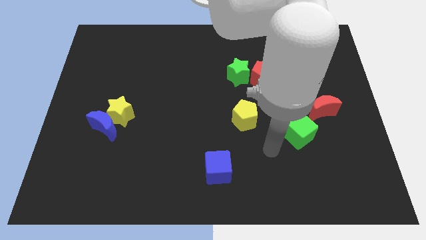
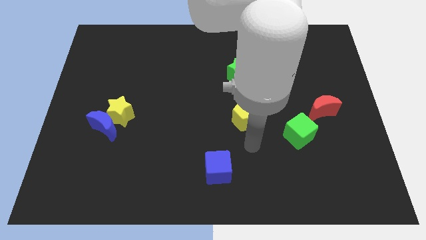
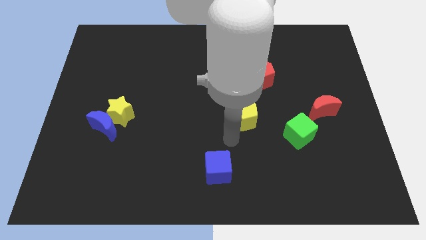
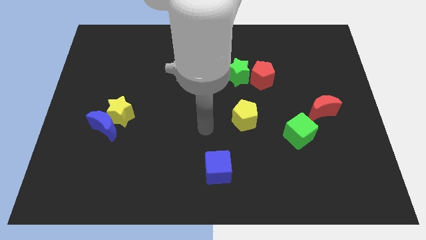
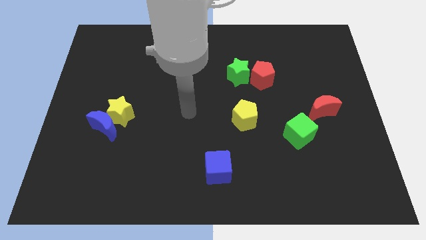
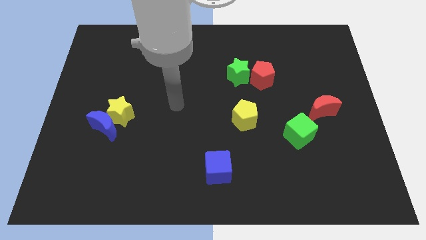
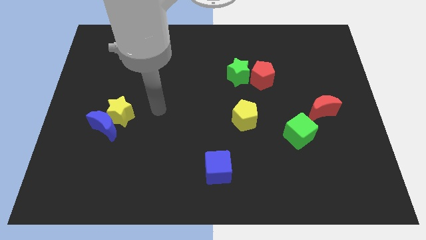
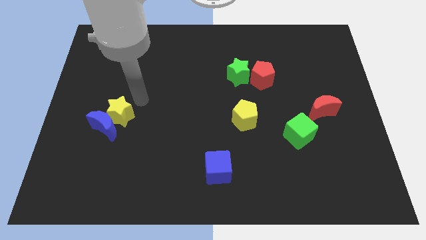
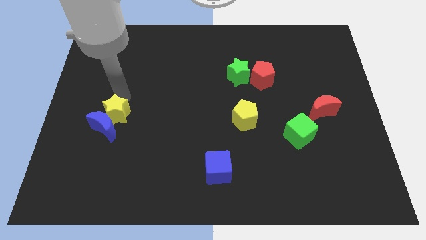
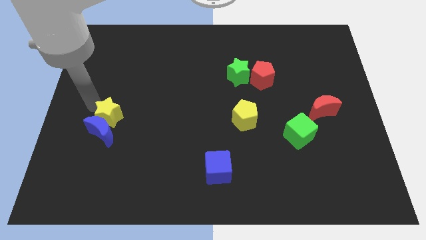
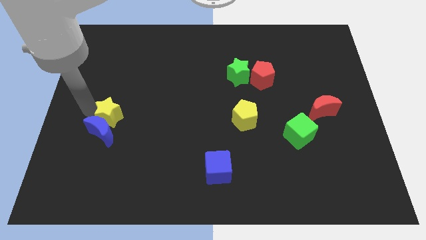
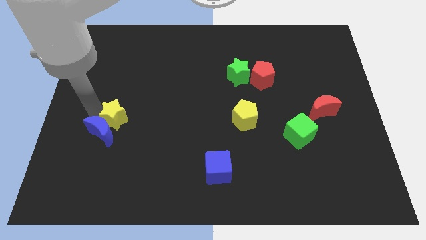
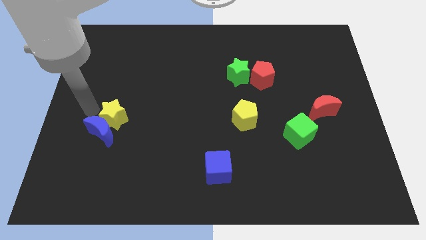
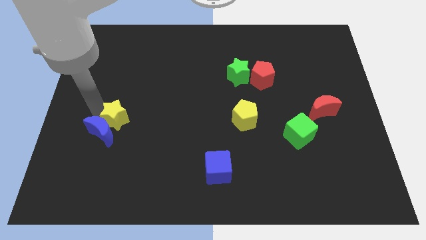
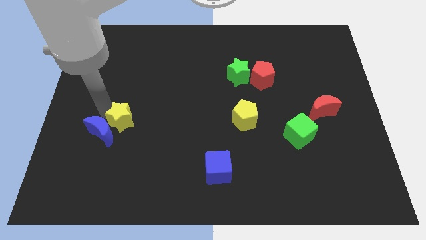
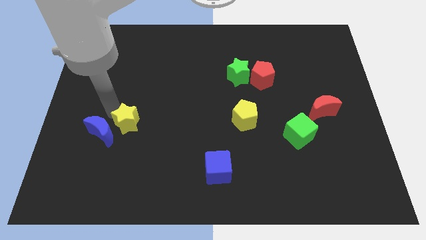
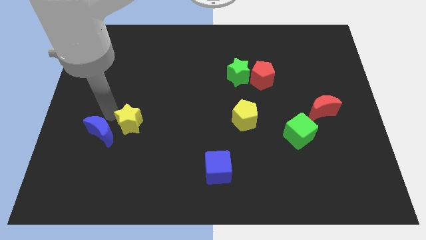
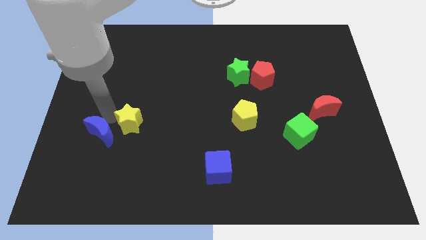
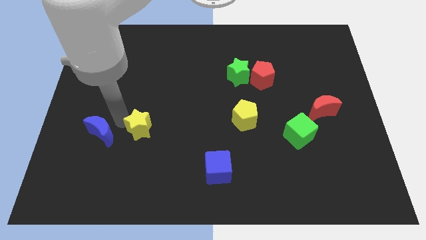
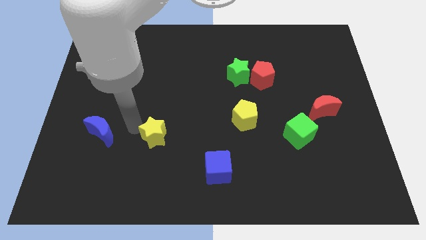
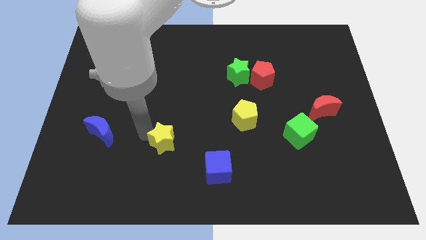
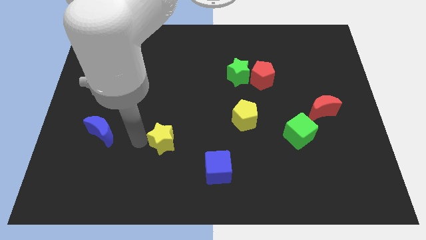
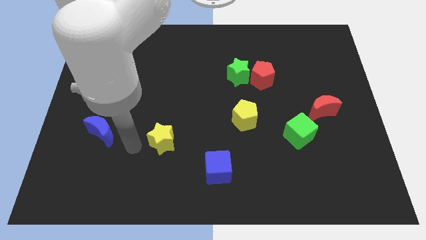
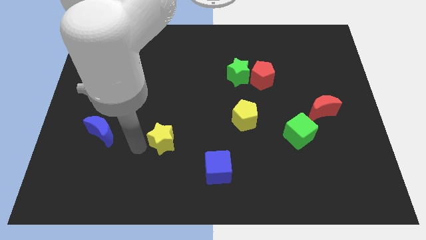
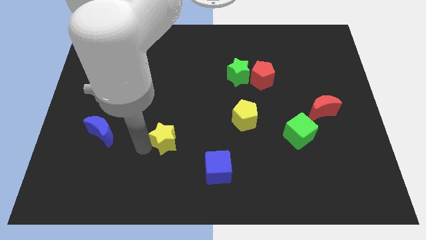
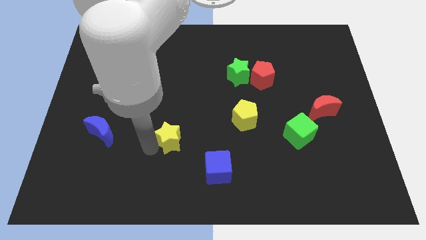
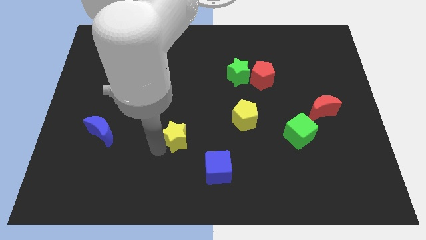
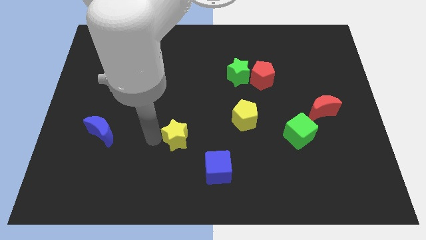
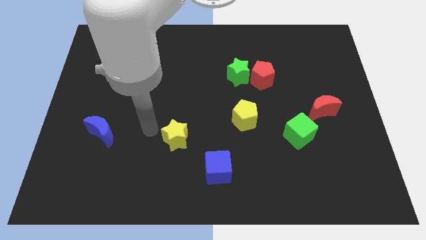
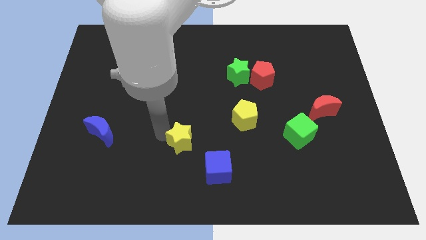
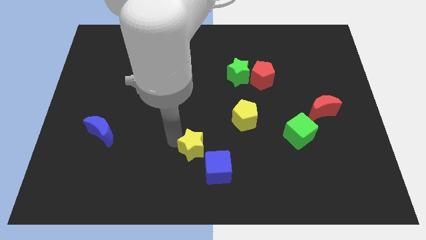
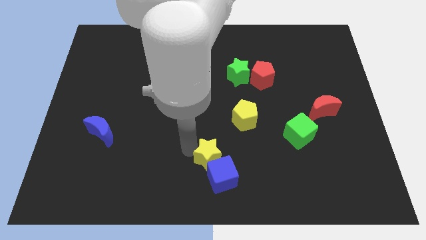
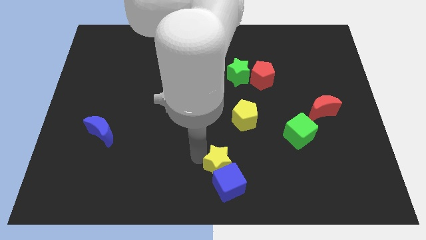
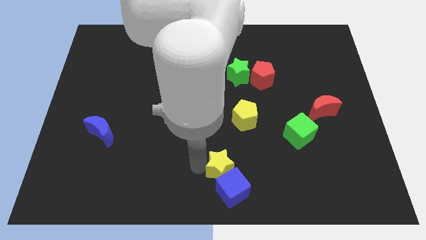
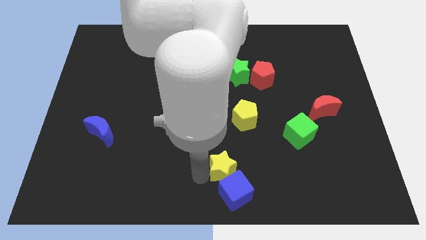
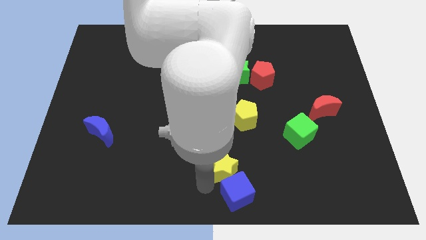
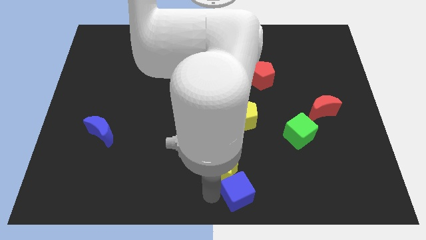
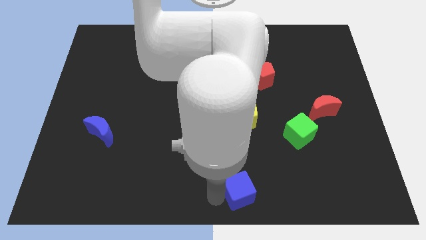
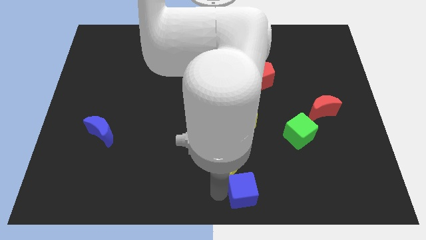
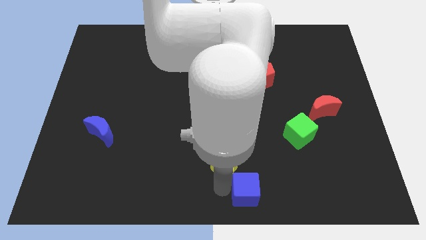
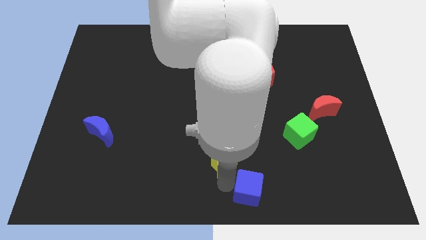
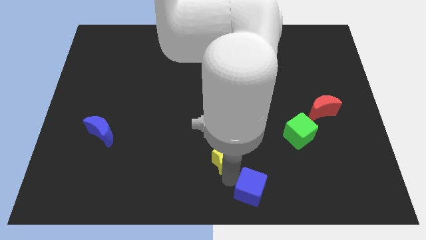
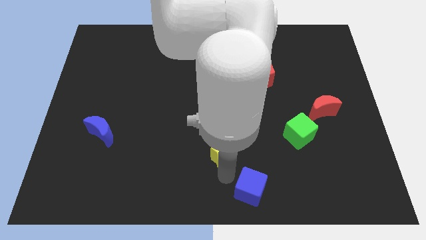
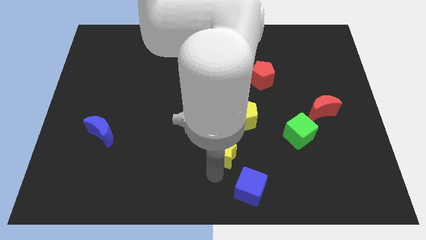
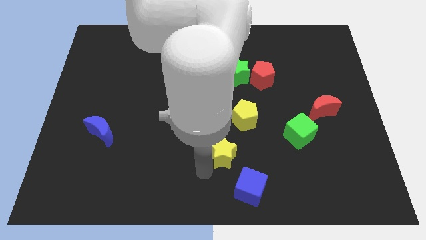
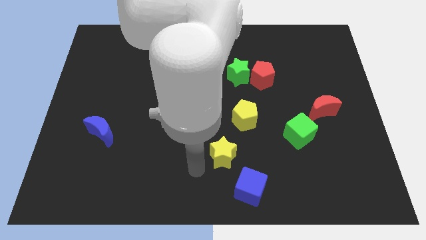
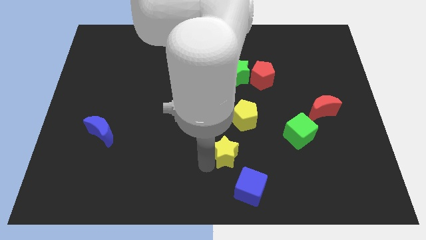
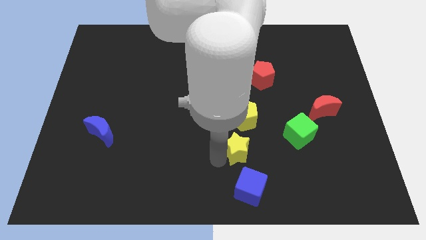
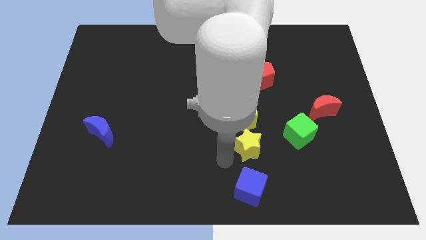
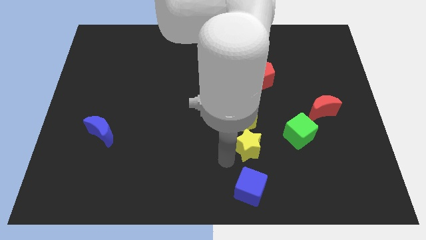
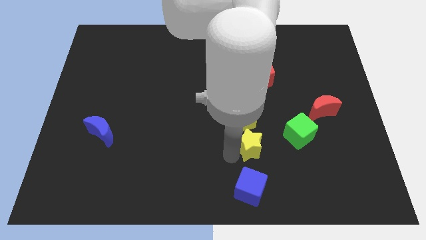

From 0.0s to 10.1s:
push the yellow star to the bottom right side of the yellow pentagon

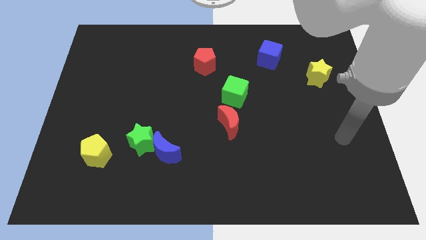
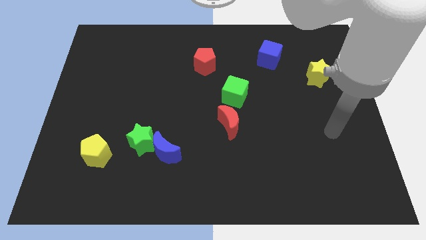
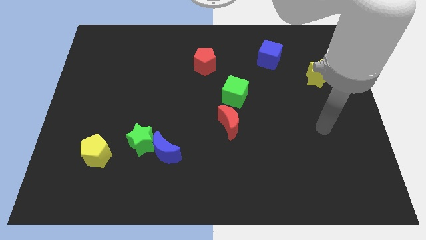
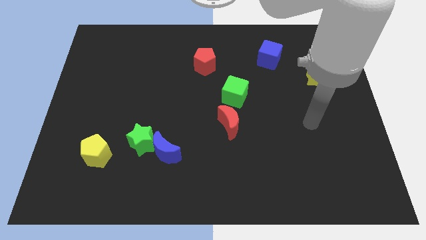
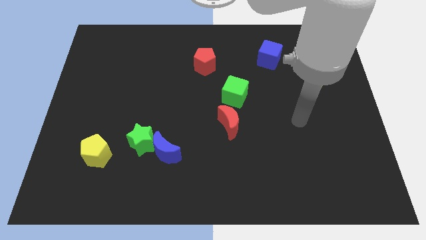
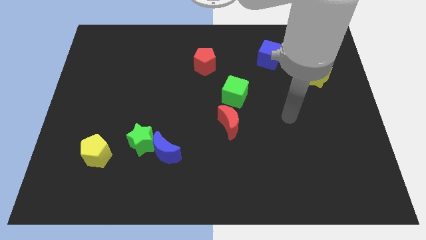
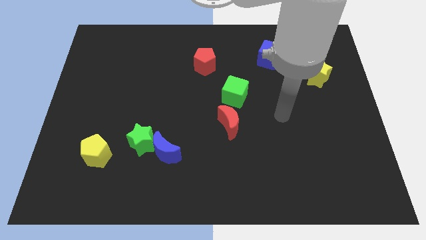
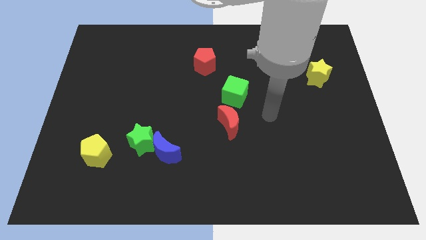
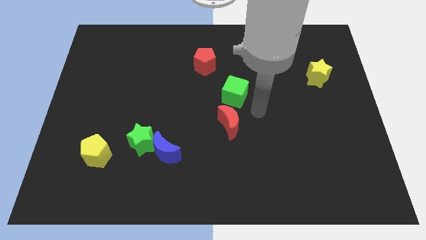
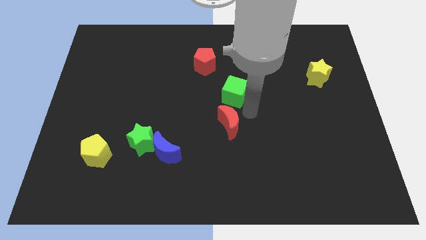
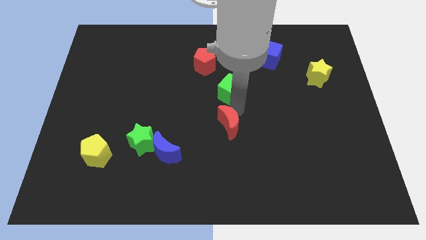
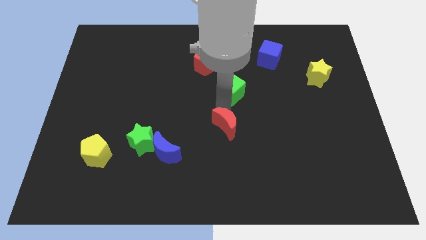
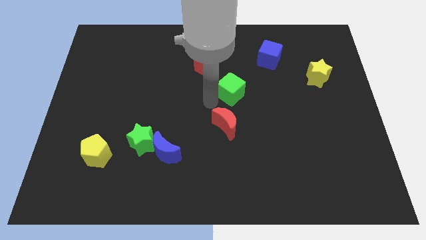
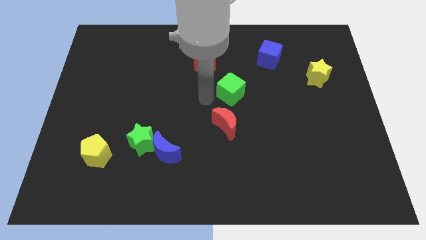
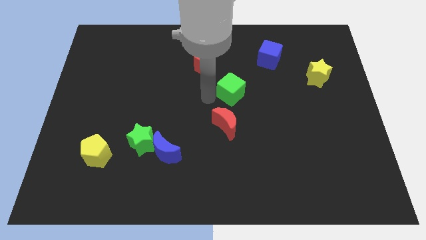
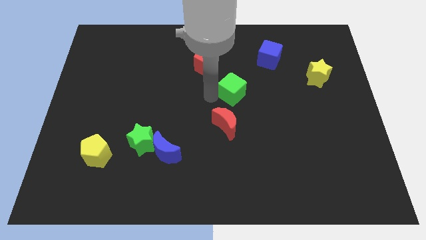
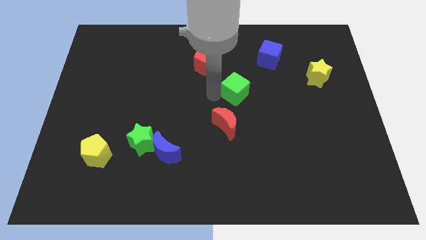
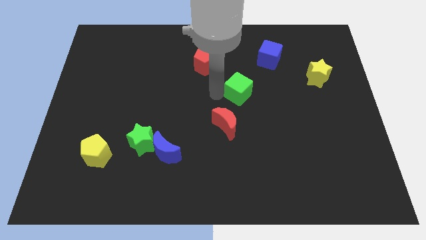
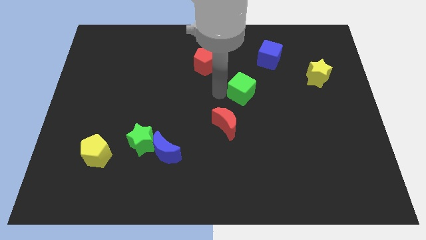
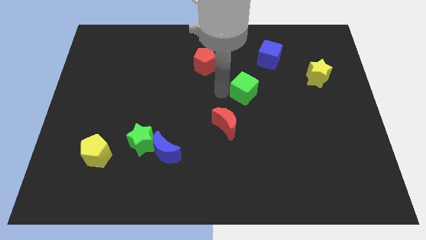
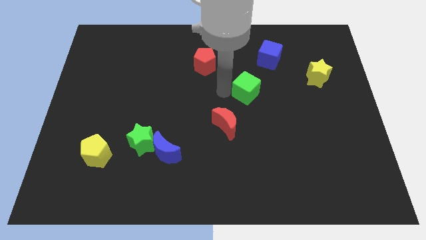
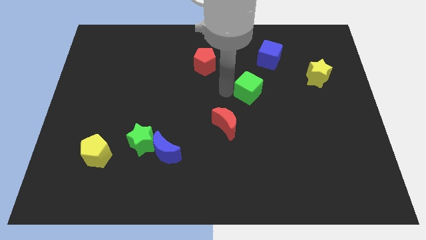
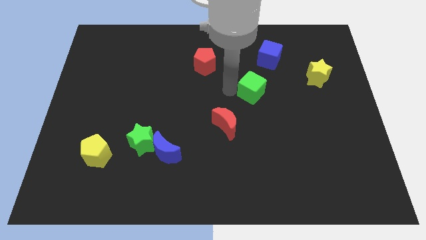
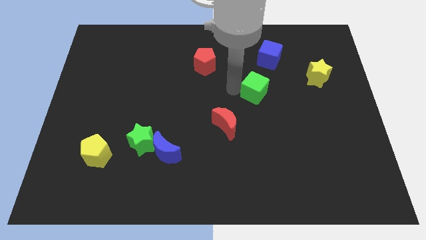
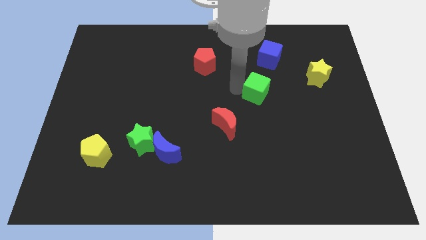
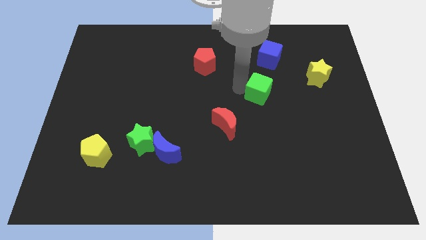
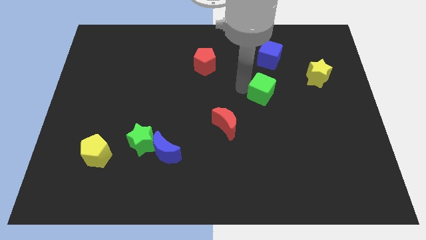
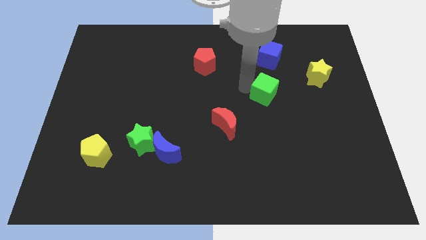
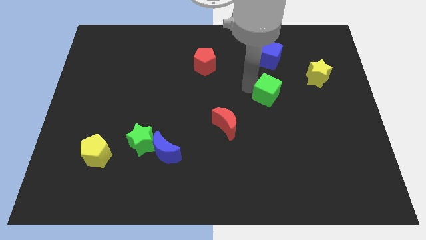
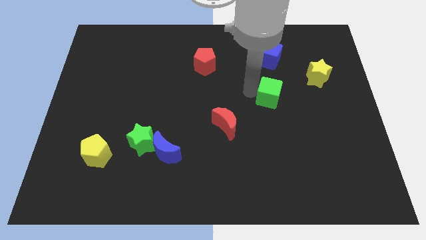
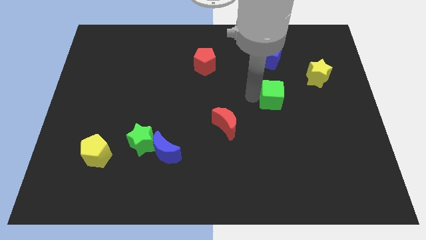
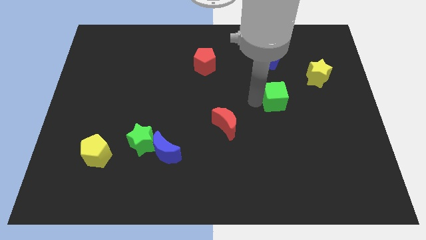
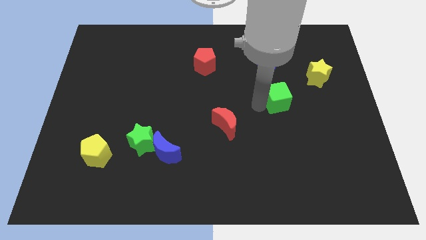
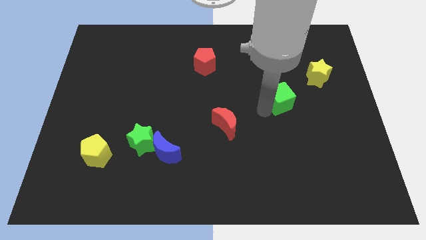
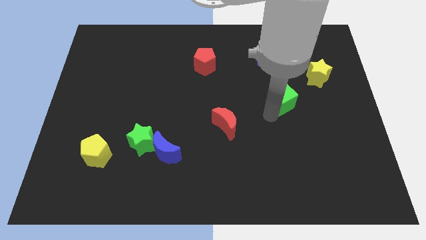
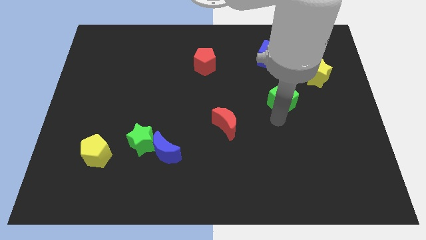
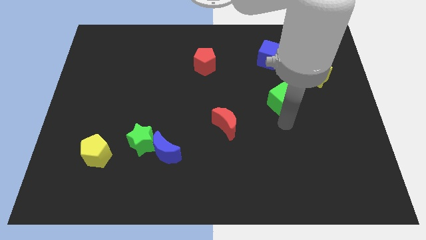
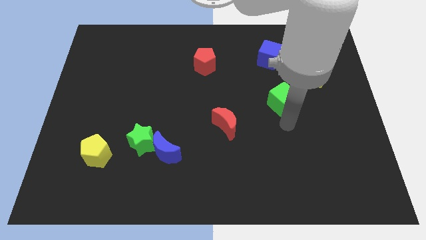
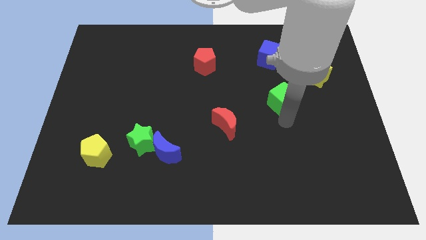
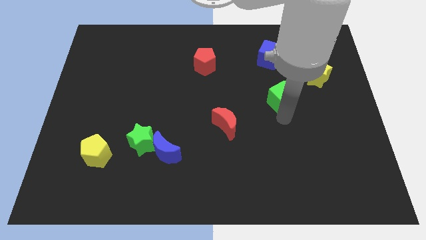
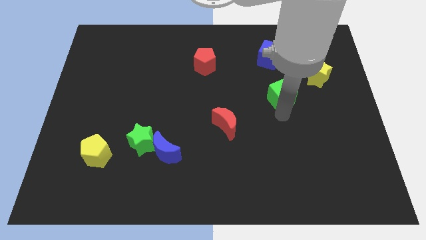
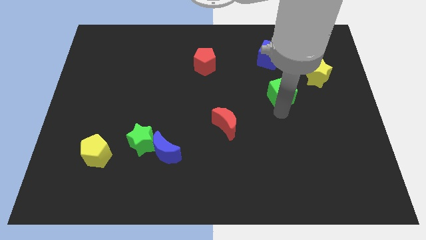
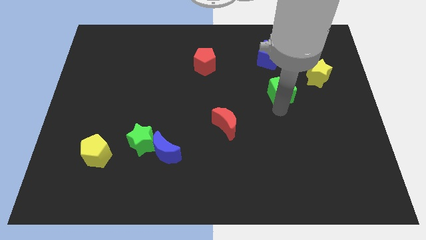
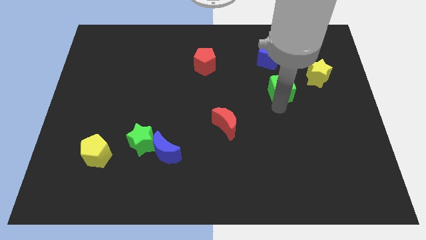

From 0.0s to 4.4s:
slide the green cube to the left of the yellow star
